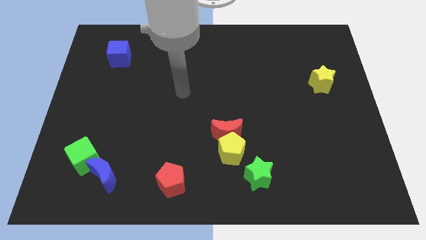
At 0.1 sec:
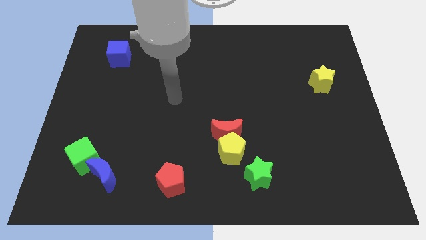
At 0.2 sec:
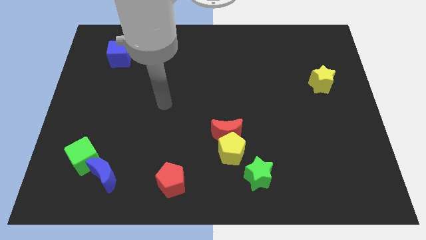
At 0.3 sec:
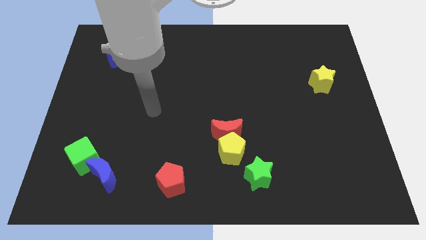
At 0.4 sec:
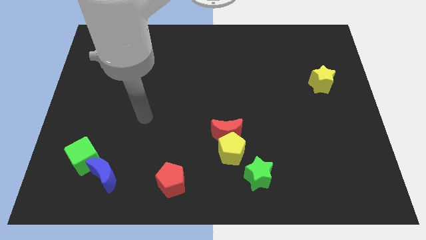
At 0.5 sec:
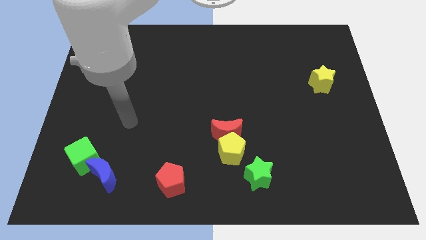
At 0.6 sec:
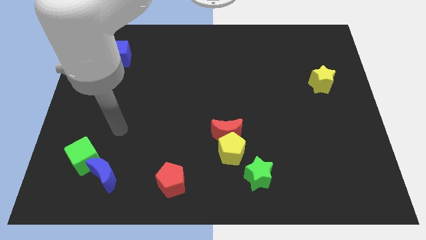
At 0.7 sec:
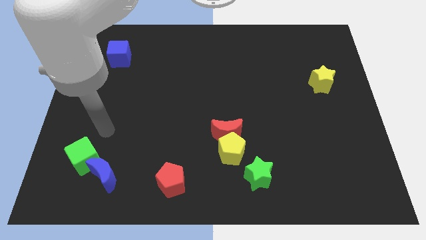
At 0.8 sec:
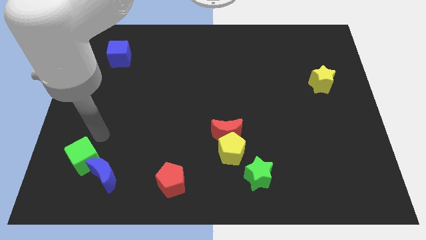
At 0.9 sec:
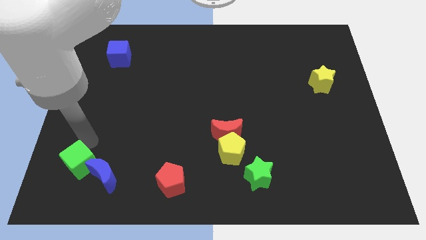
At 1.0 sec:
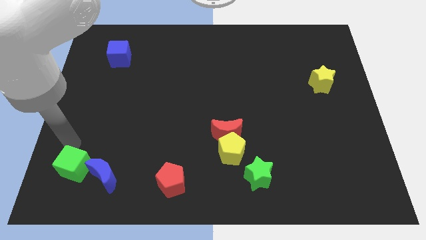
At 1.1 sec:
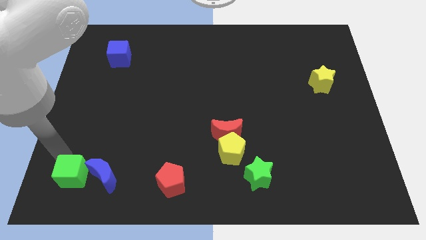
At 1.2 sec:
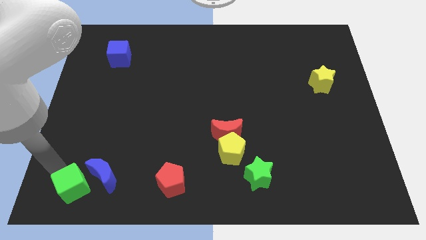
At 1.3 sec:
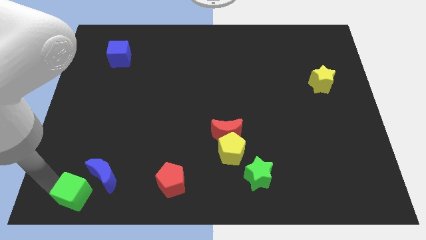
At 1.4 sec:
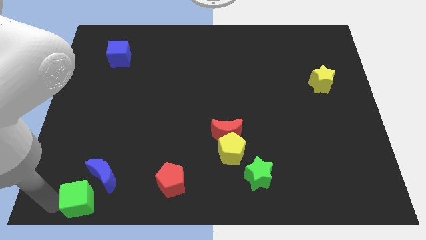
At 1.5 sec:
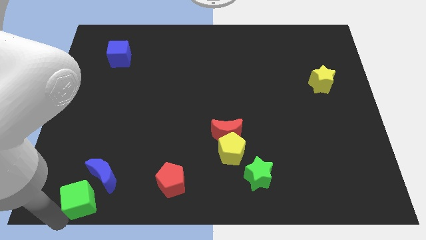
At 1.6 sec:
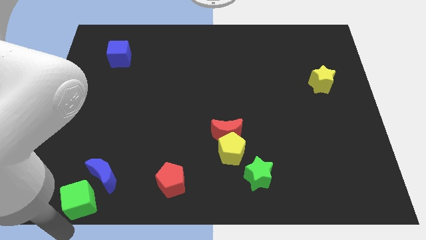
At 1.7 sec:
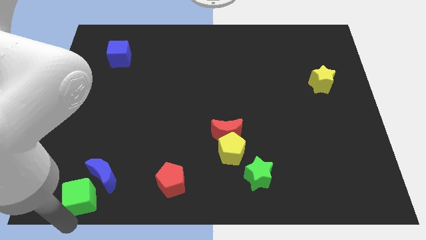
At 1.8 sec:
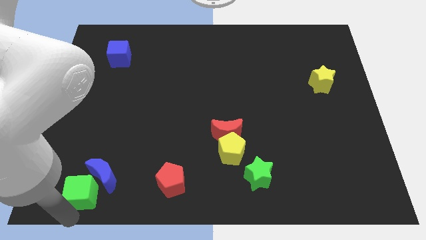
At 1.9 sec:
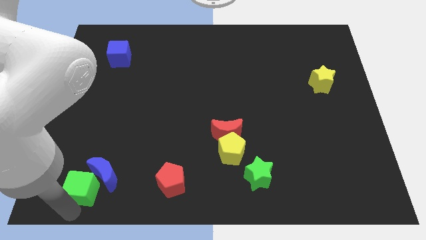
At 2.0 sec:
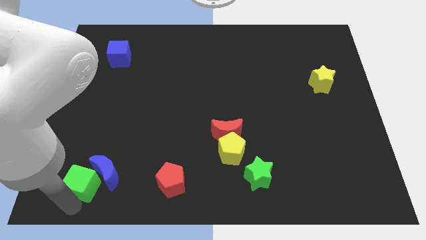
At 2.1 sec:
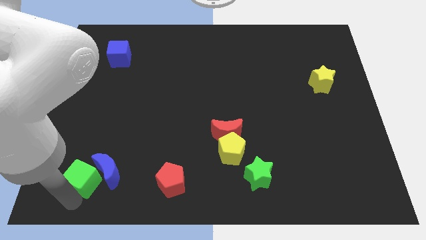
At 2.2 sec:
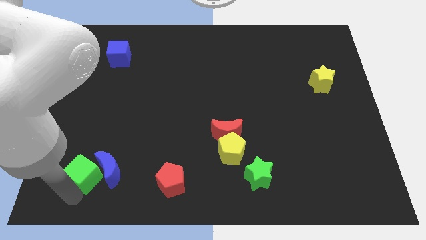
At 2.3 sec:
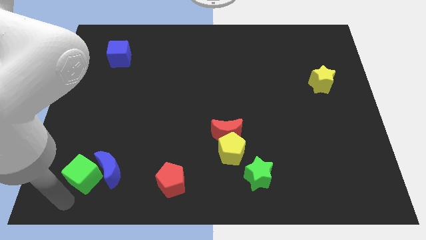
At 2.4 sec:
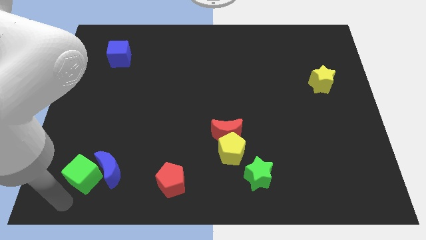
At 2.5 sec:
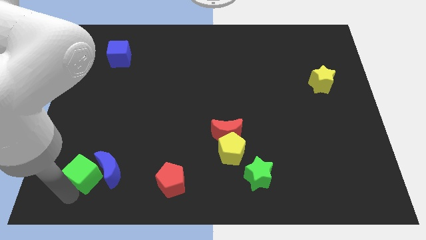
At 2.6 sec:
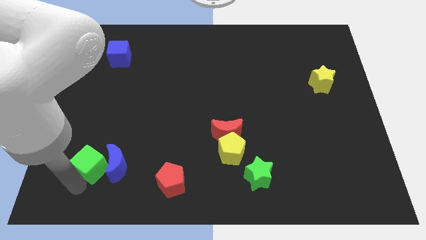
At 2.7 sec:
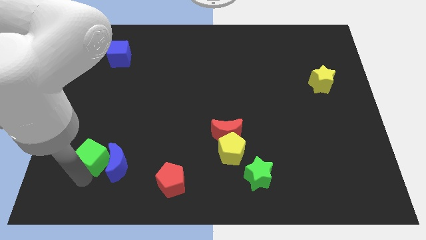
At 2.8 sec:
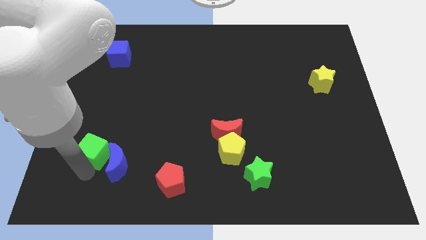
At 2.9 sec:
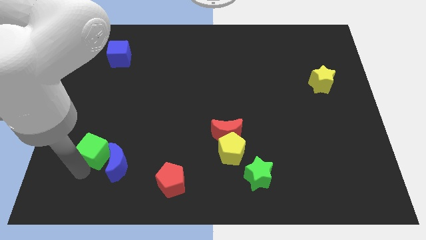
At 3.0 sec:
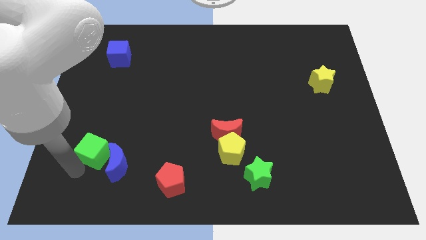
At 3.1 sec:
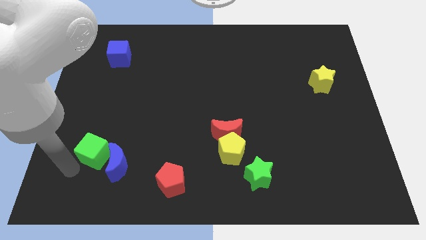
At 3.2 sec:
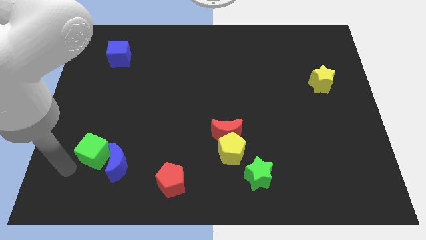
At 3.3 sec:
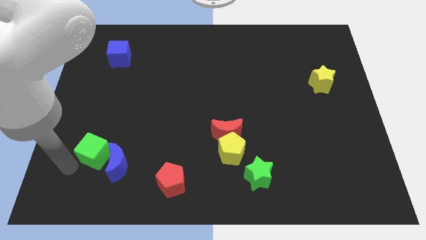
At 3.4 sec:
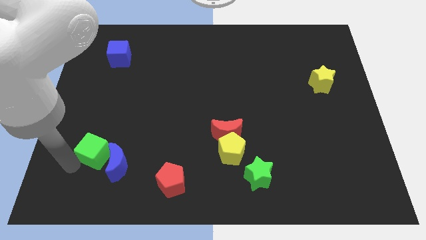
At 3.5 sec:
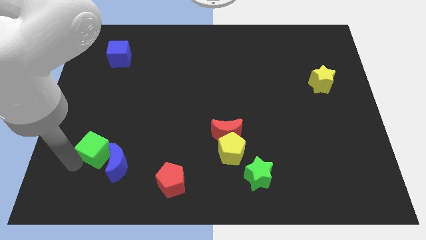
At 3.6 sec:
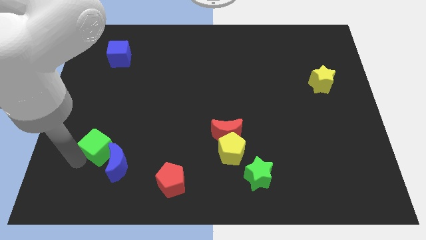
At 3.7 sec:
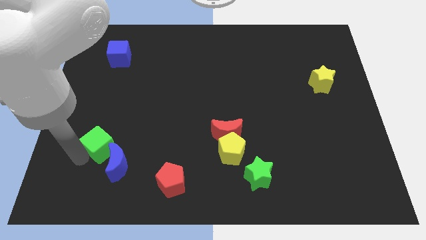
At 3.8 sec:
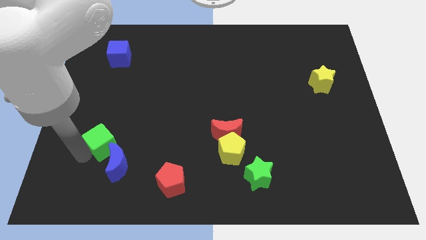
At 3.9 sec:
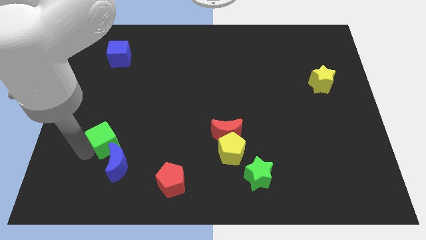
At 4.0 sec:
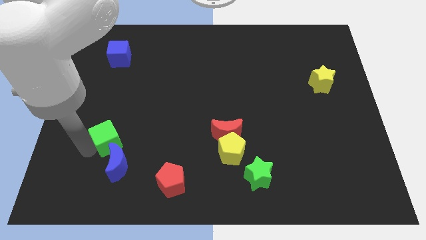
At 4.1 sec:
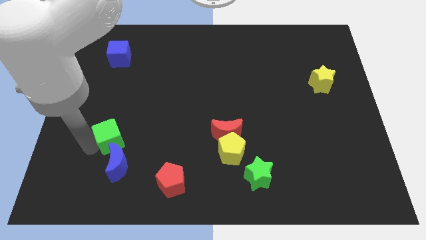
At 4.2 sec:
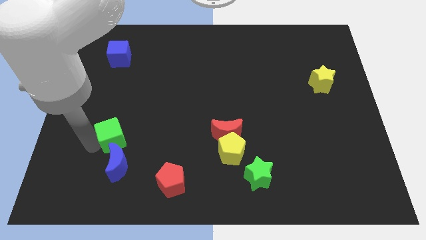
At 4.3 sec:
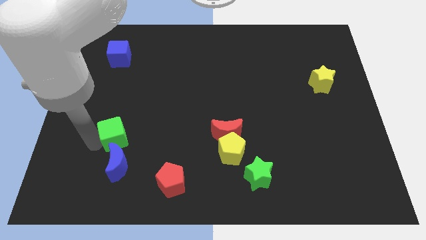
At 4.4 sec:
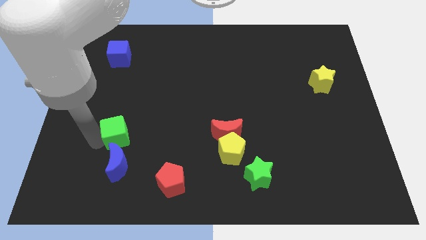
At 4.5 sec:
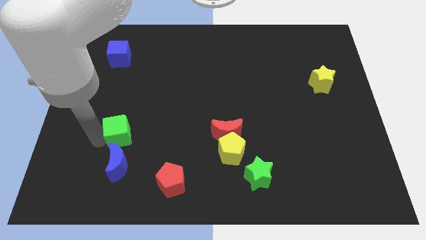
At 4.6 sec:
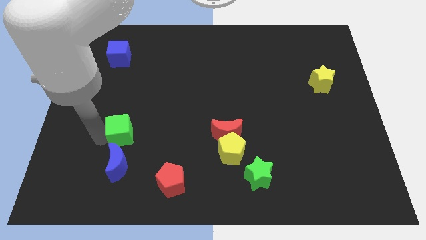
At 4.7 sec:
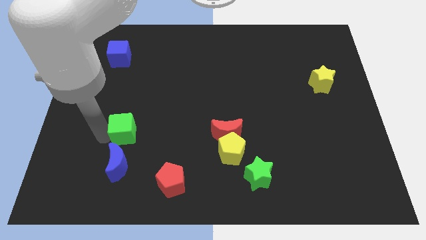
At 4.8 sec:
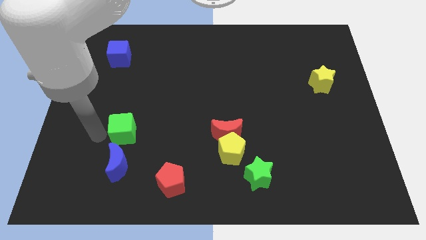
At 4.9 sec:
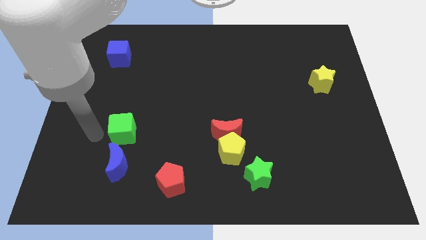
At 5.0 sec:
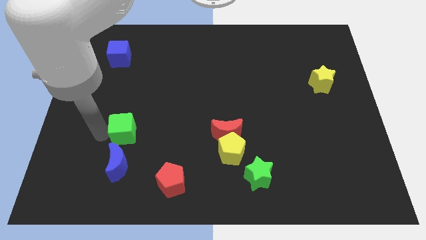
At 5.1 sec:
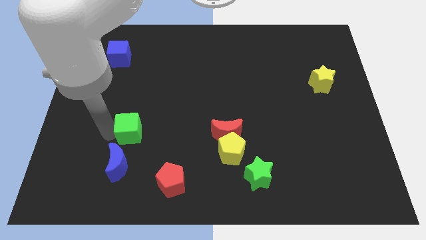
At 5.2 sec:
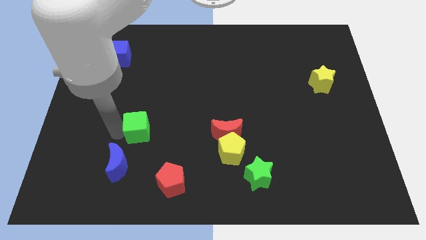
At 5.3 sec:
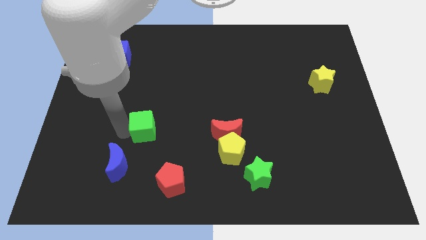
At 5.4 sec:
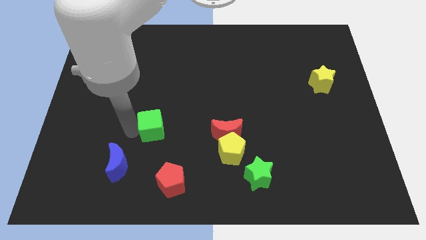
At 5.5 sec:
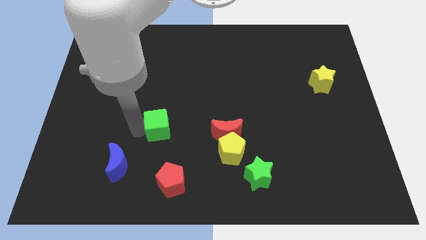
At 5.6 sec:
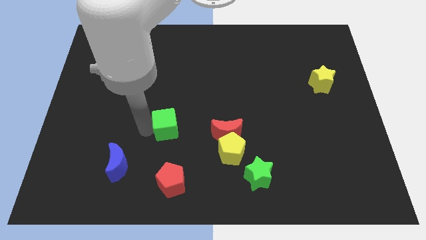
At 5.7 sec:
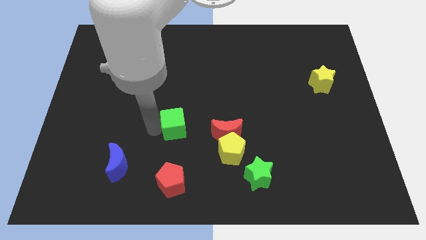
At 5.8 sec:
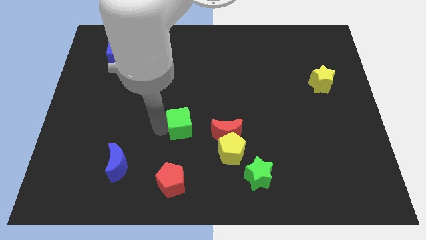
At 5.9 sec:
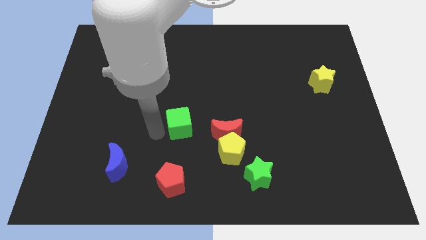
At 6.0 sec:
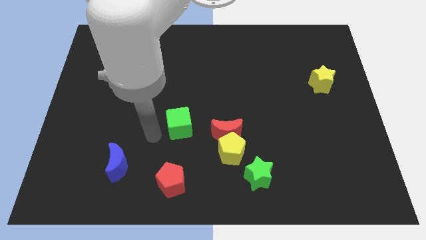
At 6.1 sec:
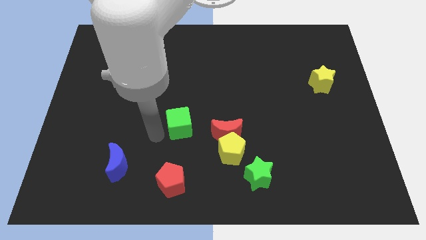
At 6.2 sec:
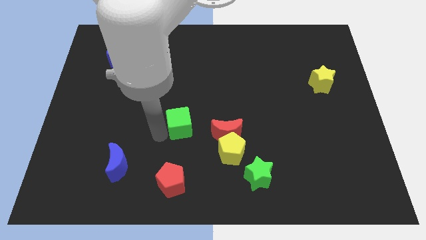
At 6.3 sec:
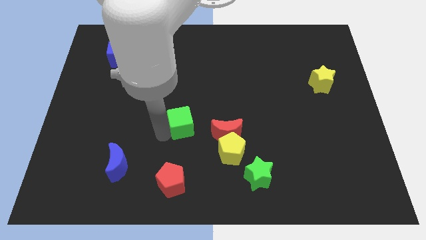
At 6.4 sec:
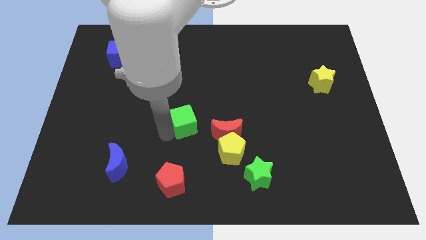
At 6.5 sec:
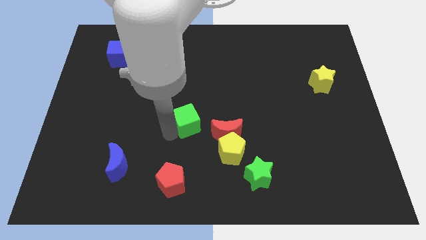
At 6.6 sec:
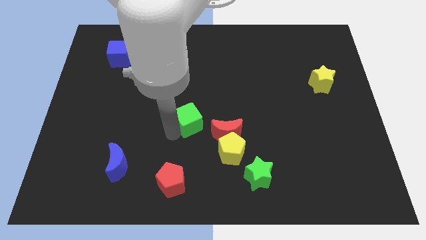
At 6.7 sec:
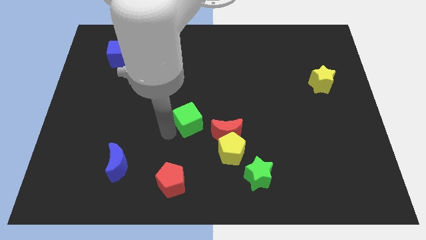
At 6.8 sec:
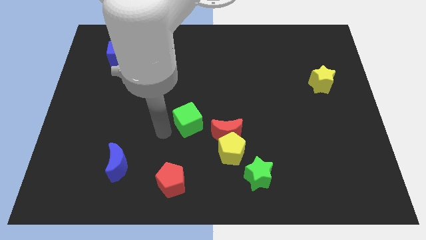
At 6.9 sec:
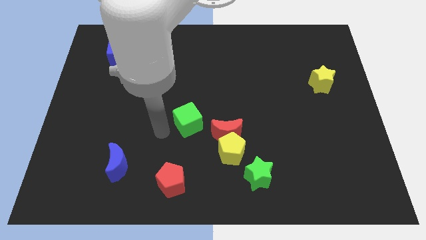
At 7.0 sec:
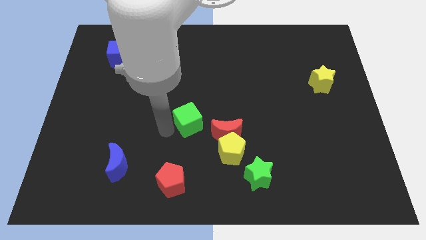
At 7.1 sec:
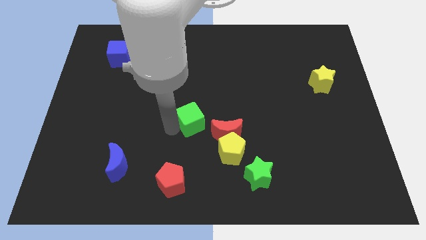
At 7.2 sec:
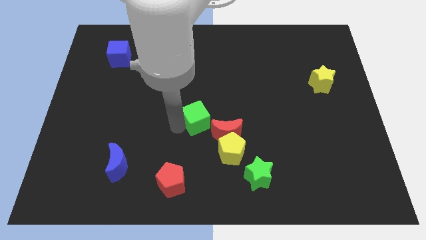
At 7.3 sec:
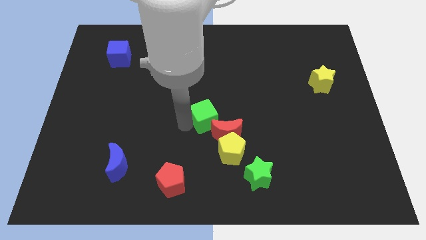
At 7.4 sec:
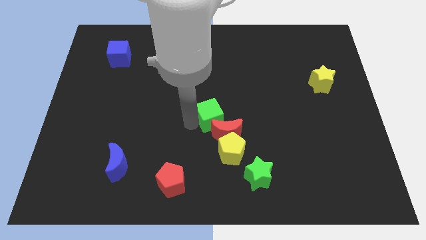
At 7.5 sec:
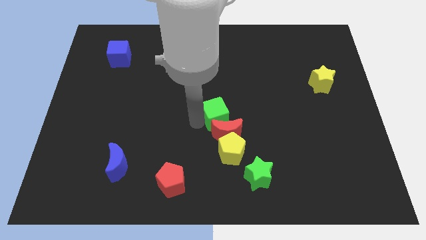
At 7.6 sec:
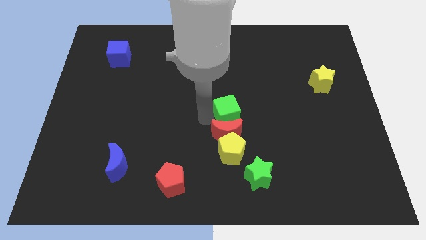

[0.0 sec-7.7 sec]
slide the green cube diagonally up and to the right of the red moon
